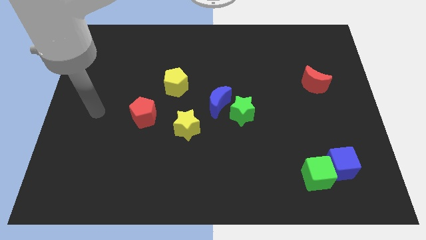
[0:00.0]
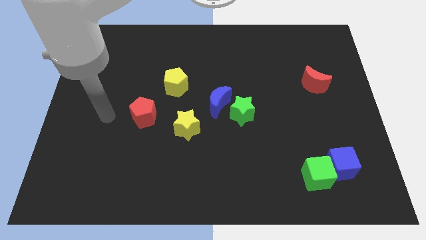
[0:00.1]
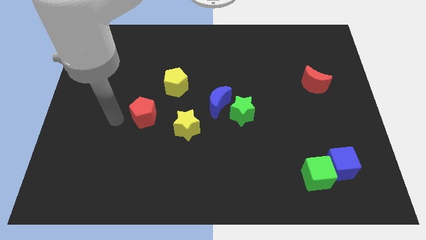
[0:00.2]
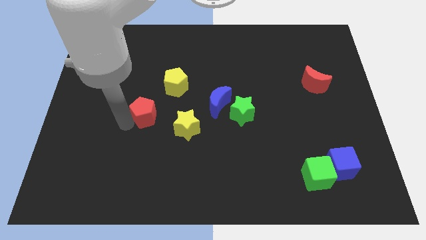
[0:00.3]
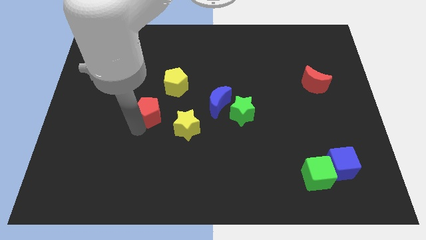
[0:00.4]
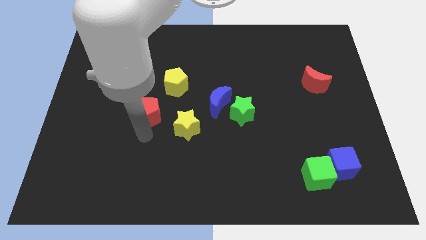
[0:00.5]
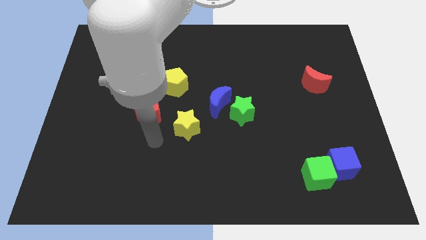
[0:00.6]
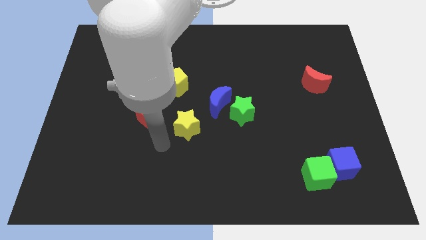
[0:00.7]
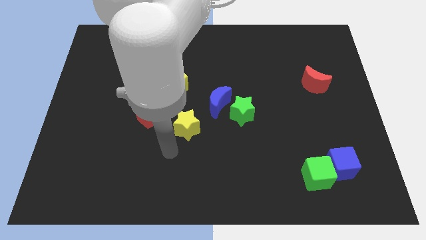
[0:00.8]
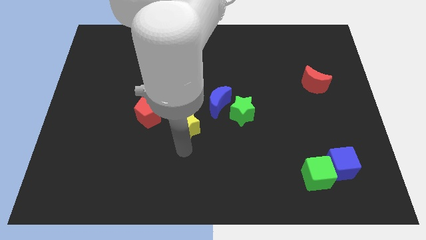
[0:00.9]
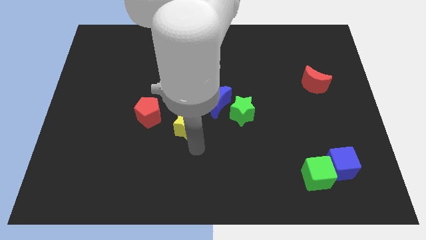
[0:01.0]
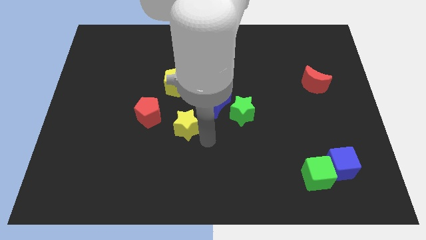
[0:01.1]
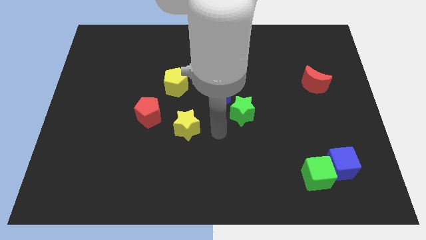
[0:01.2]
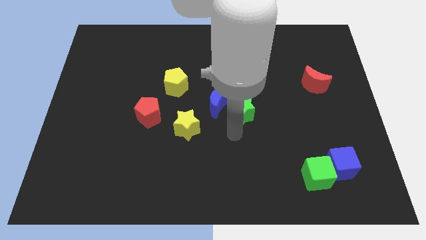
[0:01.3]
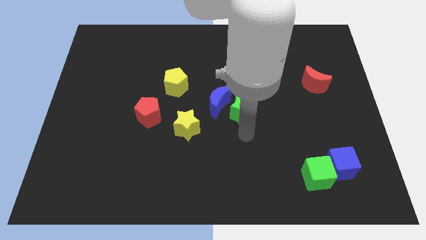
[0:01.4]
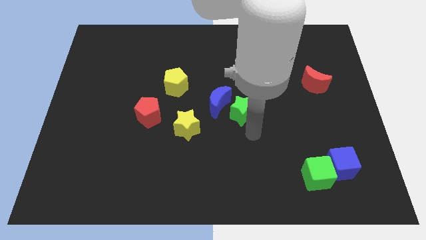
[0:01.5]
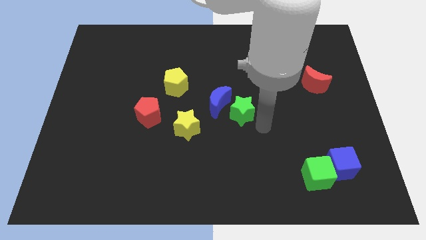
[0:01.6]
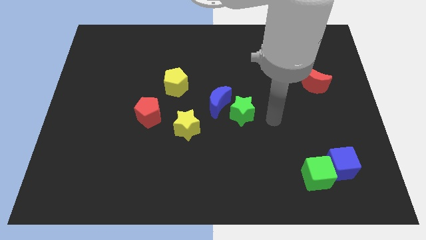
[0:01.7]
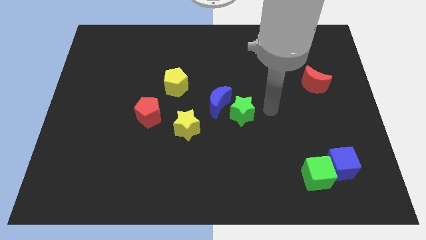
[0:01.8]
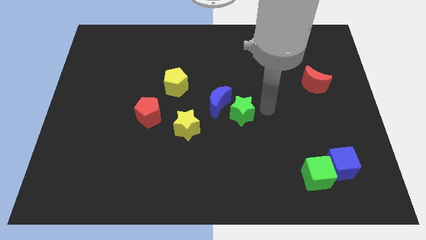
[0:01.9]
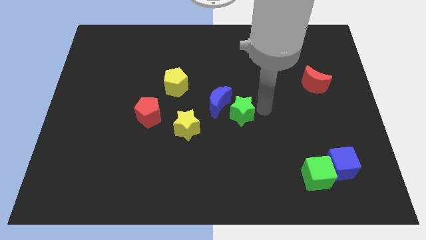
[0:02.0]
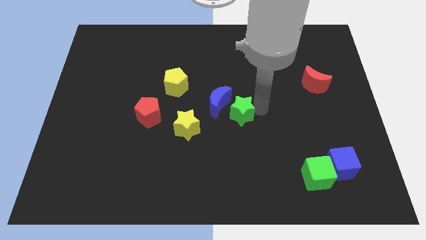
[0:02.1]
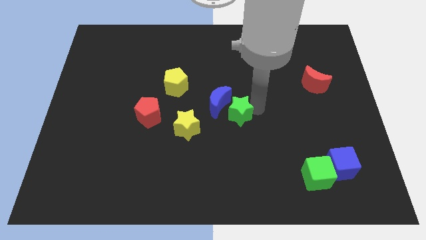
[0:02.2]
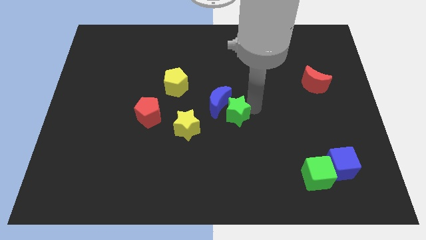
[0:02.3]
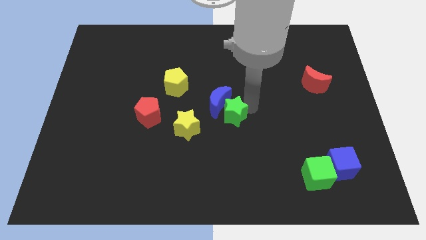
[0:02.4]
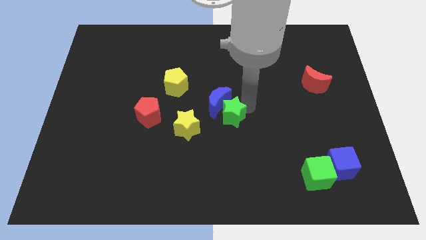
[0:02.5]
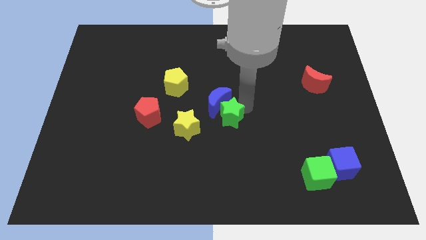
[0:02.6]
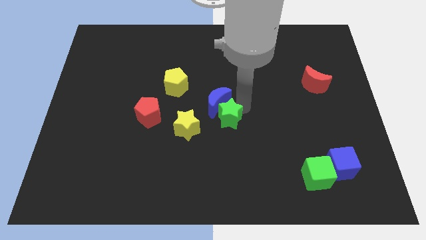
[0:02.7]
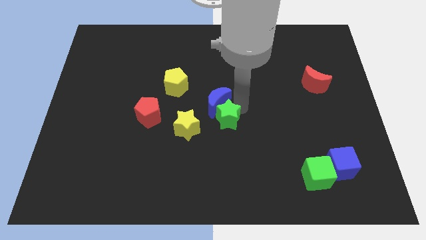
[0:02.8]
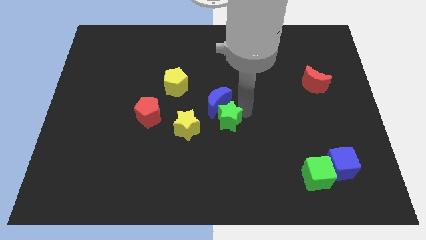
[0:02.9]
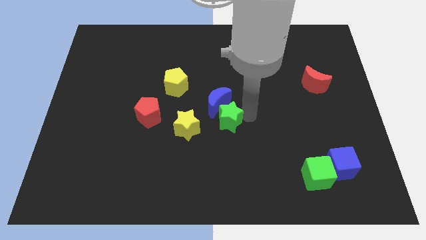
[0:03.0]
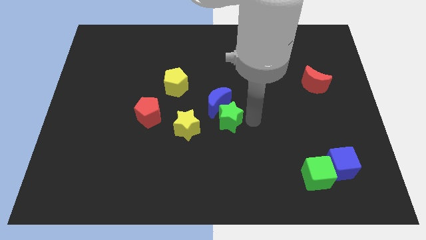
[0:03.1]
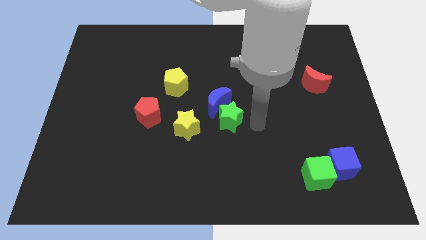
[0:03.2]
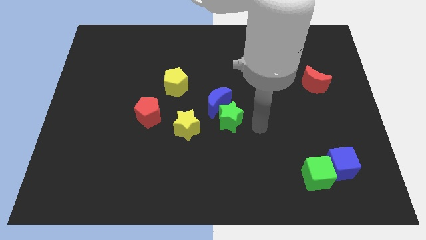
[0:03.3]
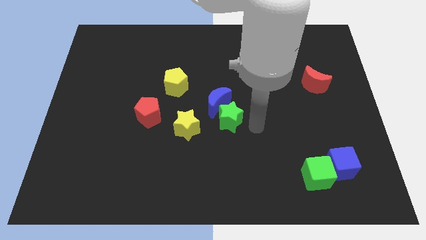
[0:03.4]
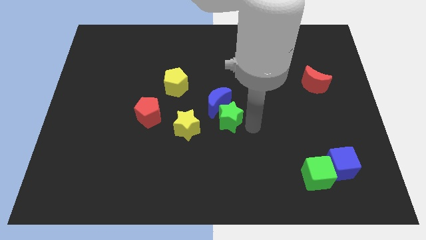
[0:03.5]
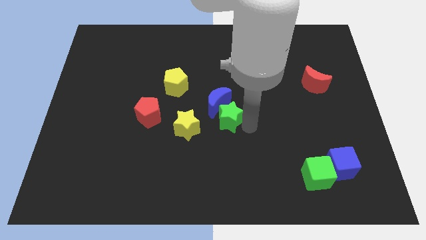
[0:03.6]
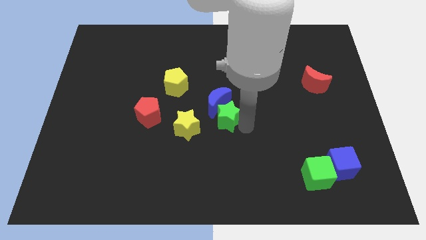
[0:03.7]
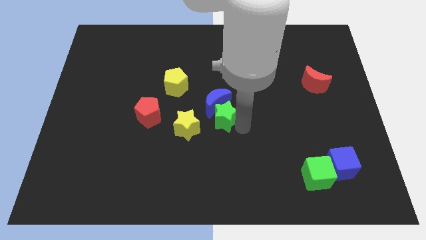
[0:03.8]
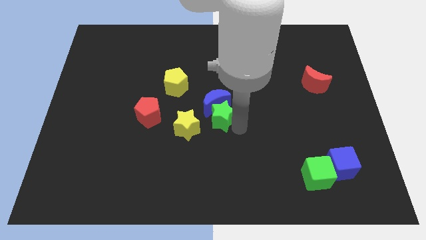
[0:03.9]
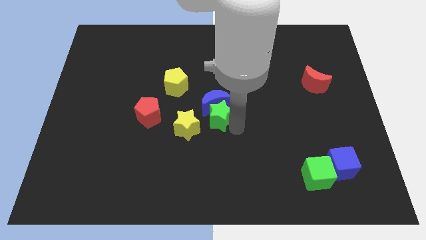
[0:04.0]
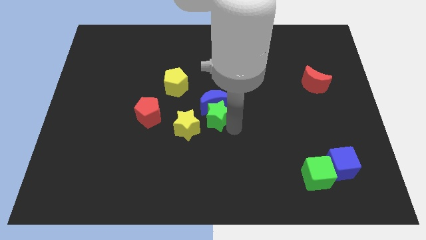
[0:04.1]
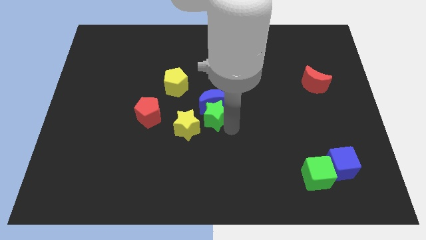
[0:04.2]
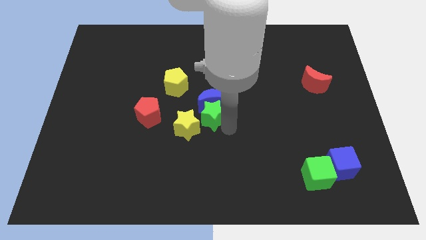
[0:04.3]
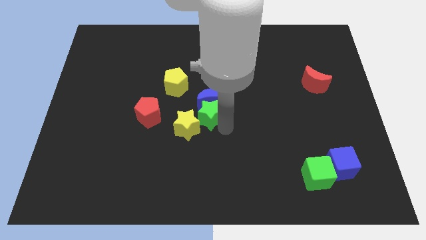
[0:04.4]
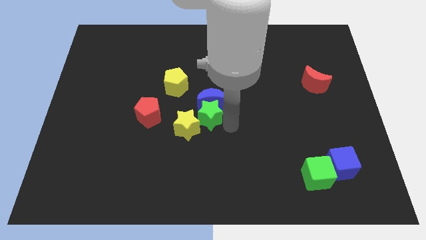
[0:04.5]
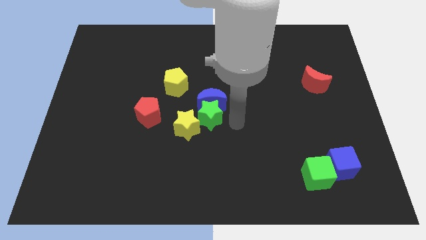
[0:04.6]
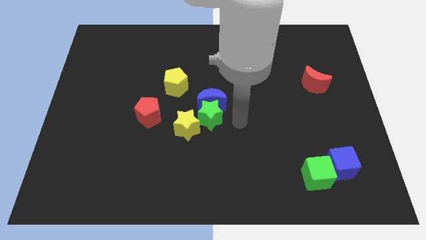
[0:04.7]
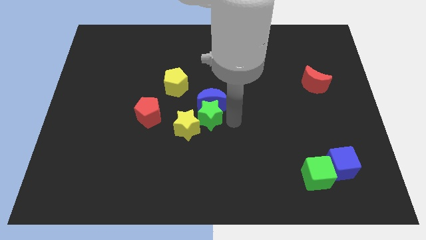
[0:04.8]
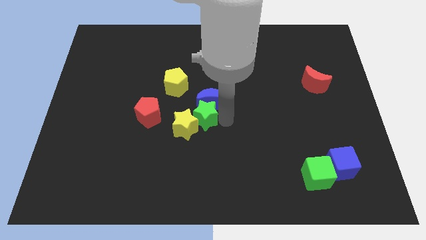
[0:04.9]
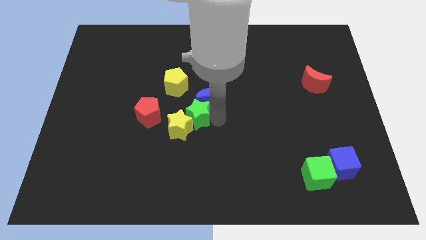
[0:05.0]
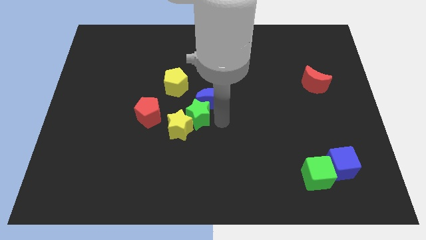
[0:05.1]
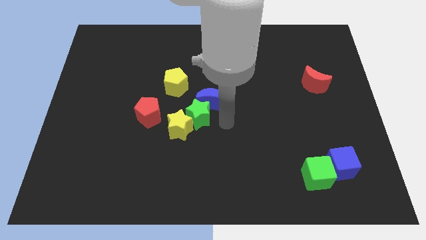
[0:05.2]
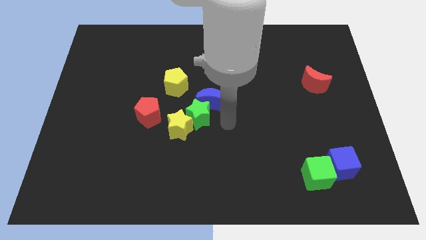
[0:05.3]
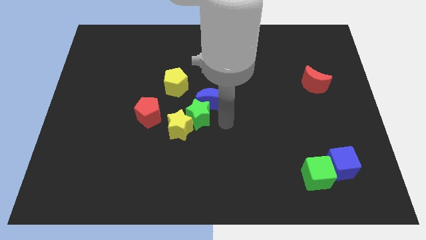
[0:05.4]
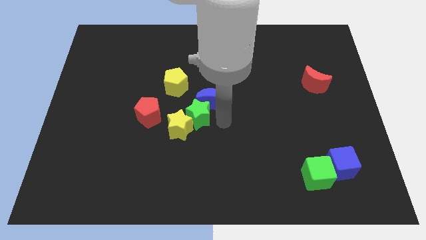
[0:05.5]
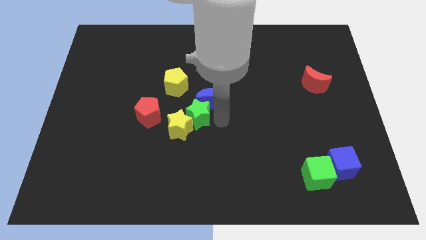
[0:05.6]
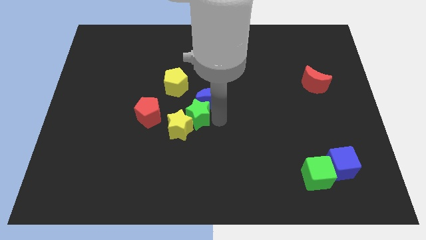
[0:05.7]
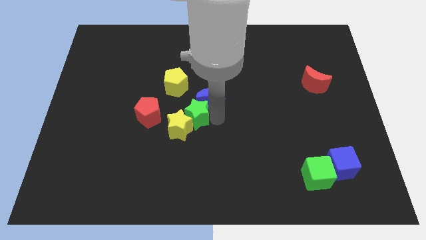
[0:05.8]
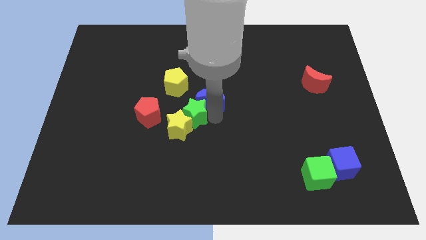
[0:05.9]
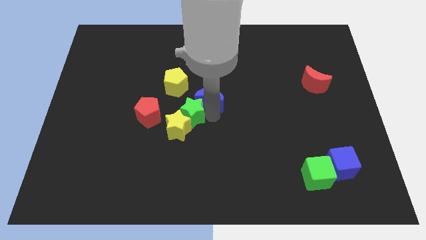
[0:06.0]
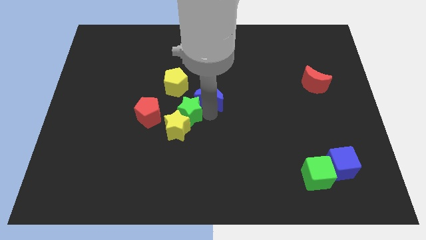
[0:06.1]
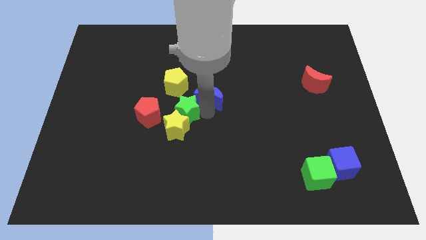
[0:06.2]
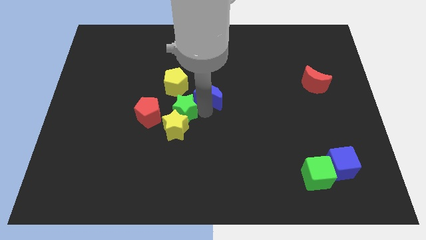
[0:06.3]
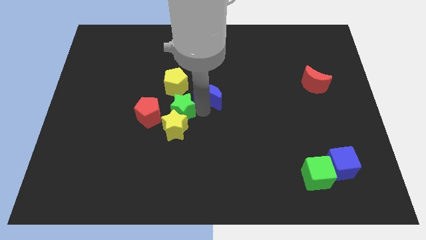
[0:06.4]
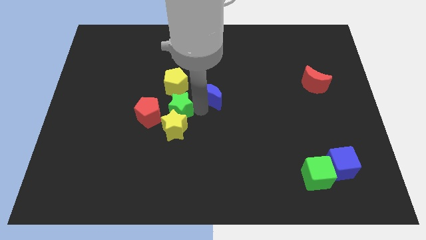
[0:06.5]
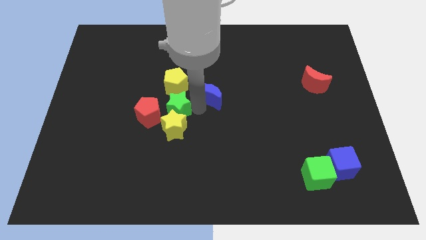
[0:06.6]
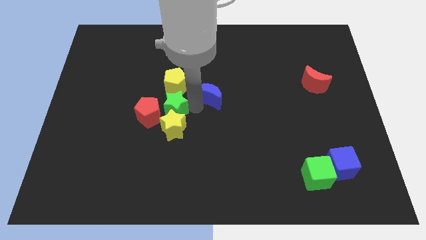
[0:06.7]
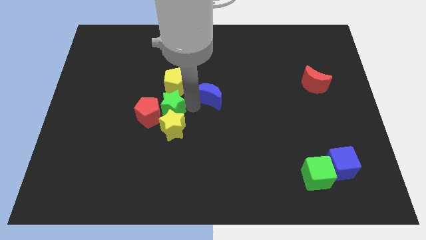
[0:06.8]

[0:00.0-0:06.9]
put the green star next to the red pentagon
